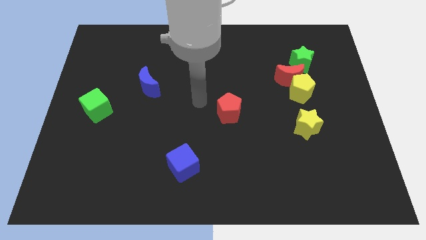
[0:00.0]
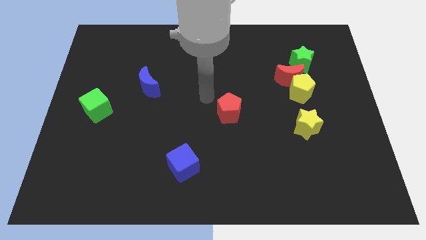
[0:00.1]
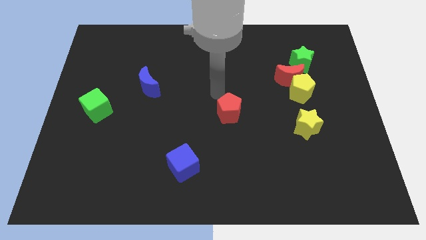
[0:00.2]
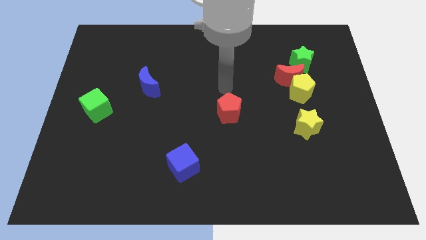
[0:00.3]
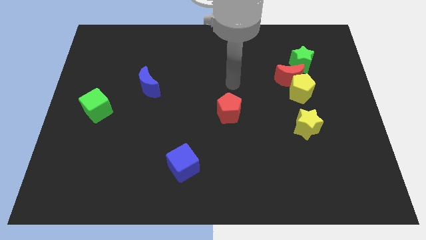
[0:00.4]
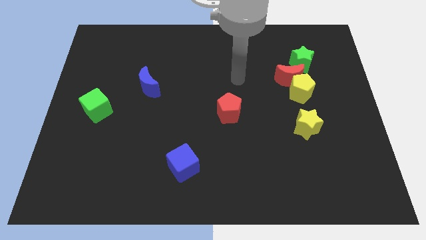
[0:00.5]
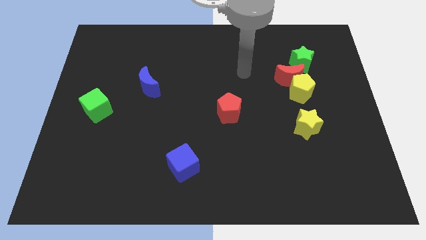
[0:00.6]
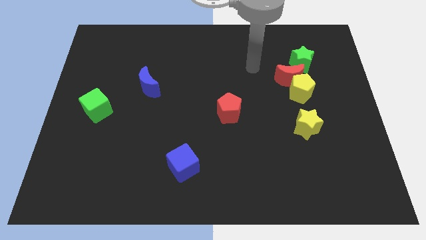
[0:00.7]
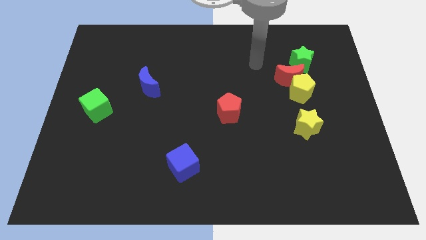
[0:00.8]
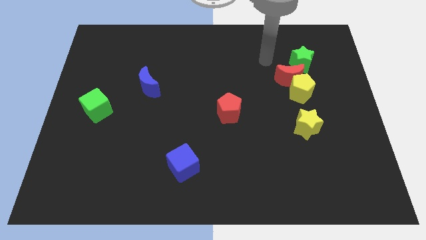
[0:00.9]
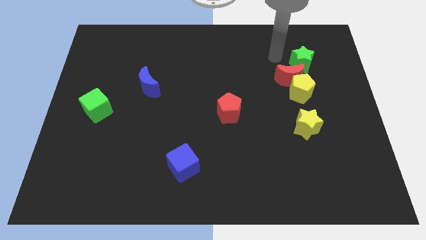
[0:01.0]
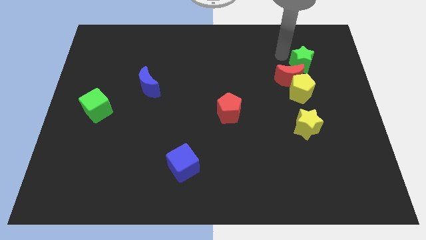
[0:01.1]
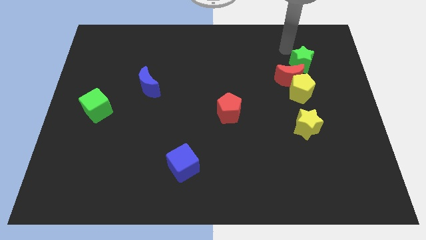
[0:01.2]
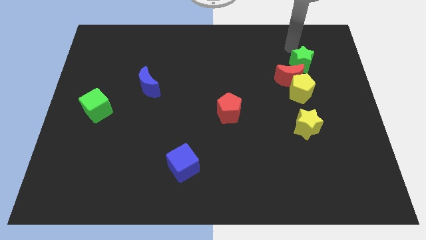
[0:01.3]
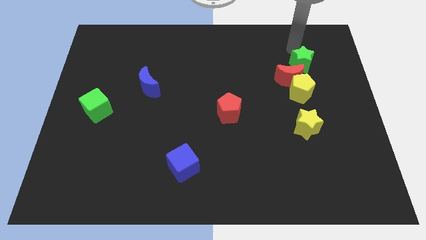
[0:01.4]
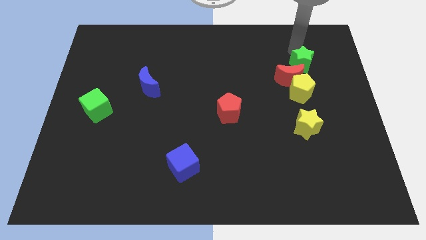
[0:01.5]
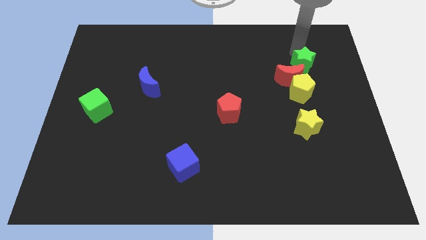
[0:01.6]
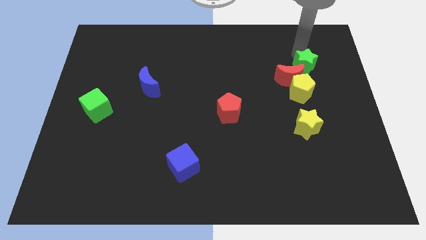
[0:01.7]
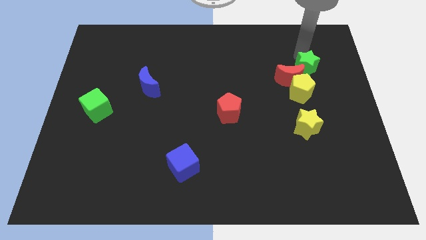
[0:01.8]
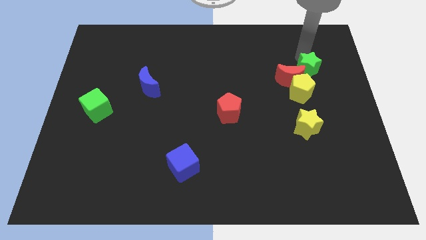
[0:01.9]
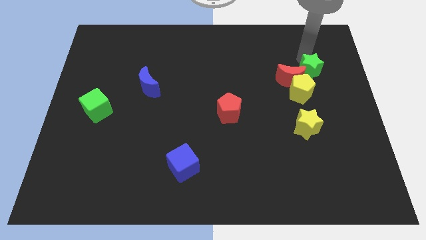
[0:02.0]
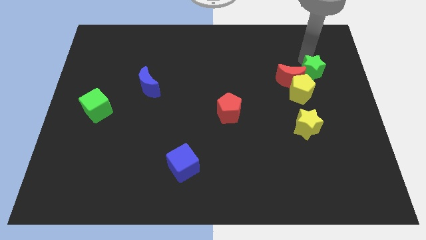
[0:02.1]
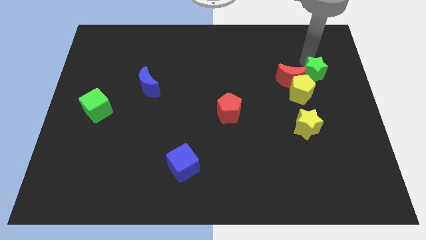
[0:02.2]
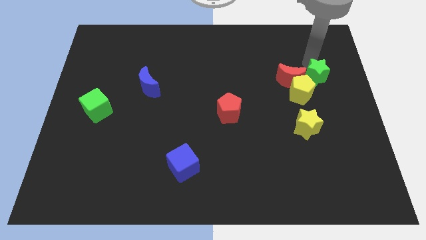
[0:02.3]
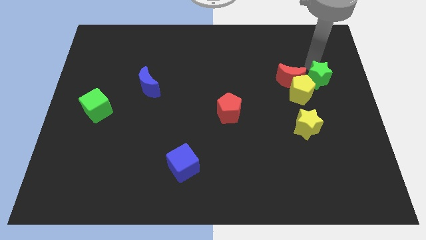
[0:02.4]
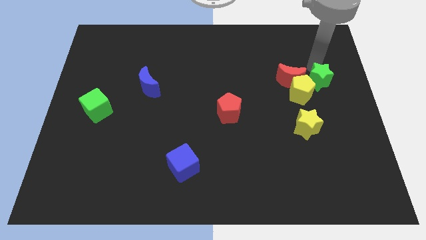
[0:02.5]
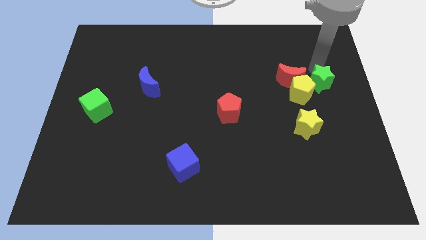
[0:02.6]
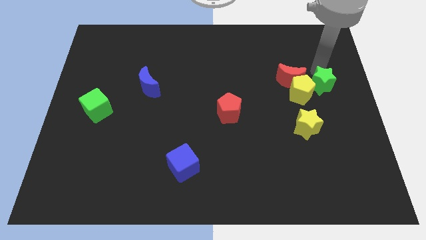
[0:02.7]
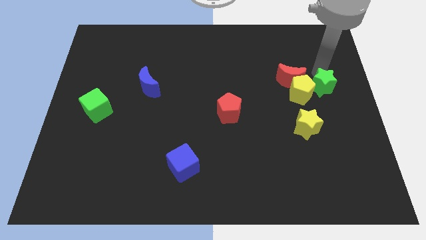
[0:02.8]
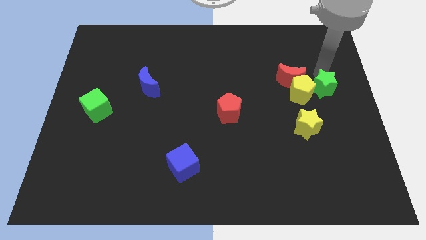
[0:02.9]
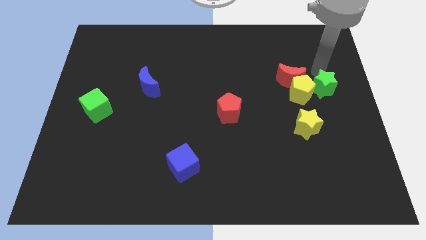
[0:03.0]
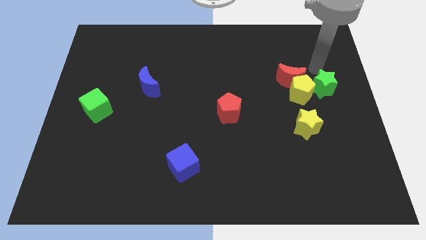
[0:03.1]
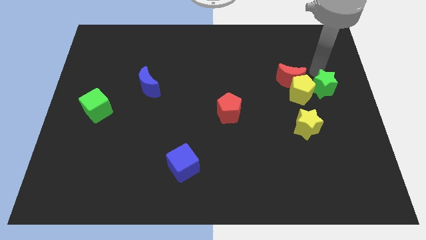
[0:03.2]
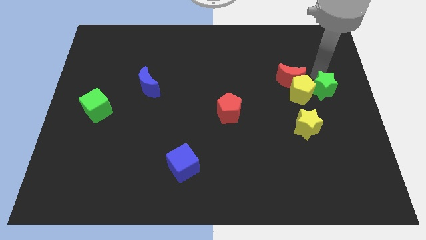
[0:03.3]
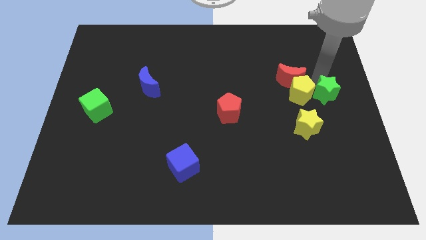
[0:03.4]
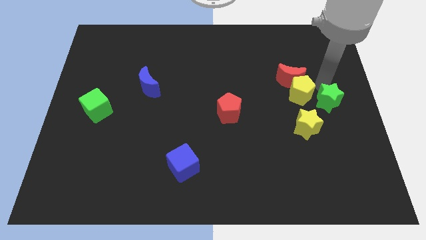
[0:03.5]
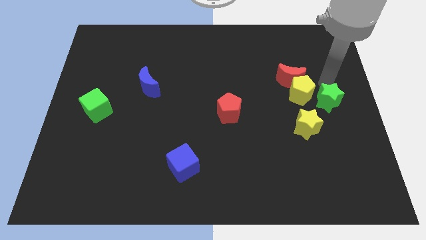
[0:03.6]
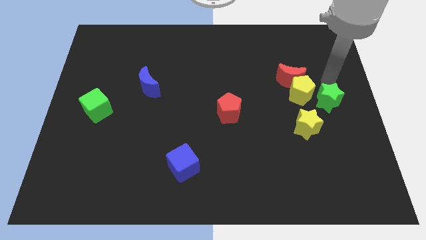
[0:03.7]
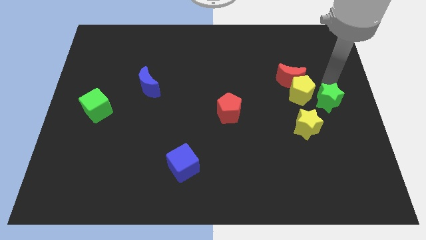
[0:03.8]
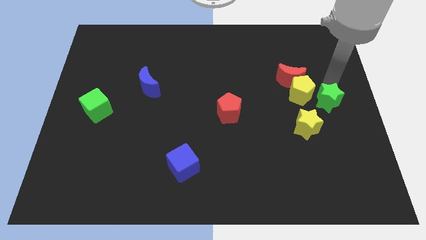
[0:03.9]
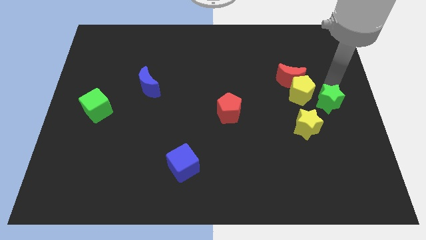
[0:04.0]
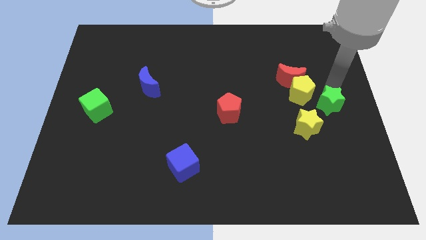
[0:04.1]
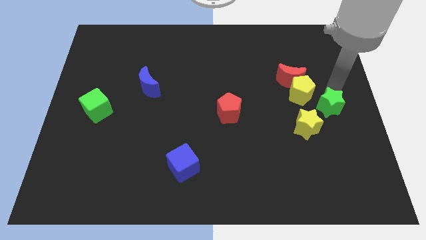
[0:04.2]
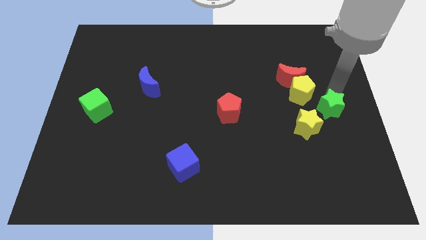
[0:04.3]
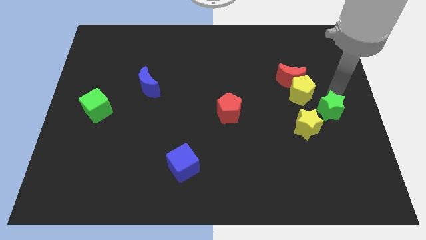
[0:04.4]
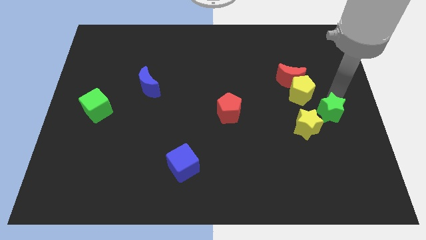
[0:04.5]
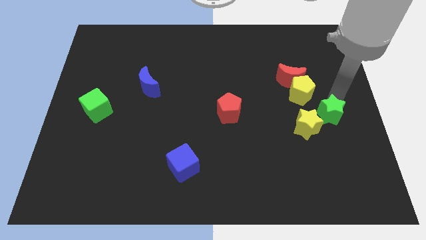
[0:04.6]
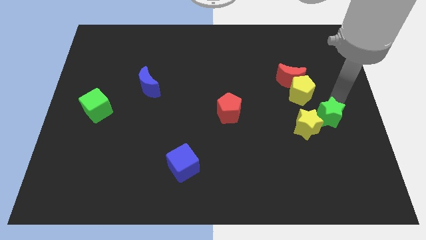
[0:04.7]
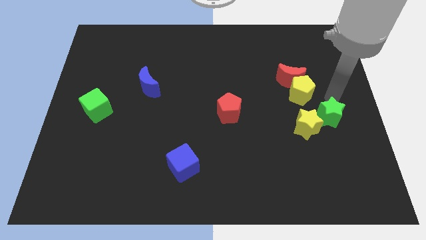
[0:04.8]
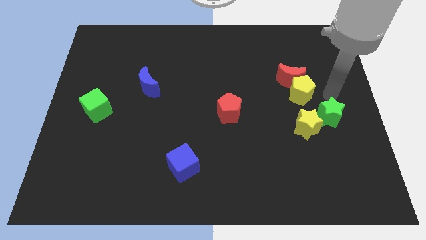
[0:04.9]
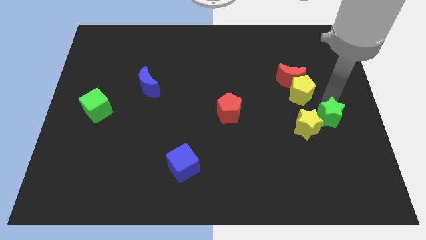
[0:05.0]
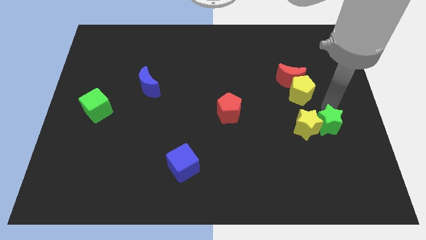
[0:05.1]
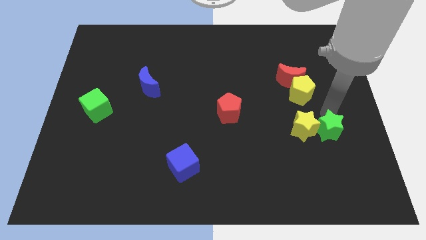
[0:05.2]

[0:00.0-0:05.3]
slide the green star downwards

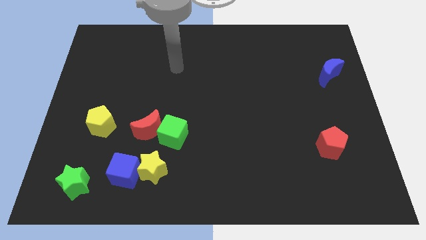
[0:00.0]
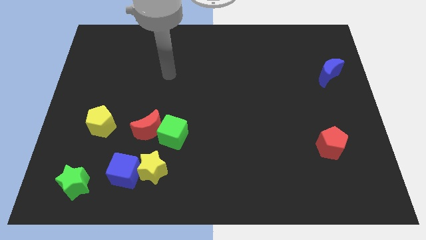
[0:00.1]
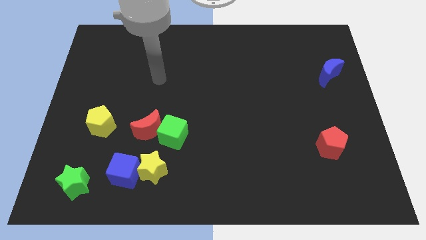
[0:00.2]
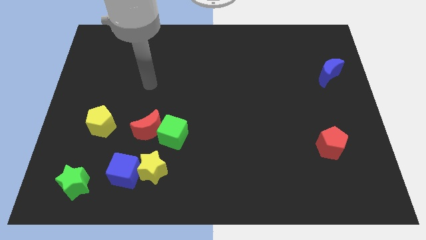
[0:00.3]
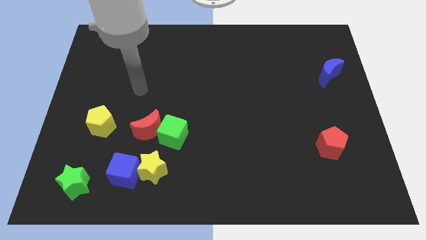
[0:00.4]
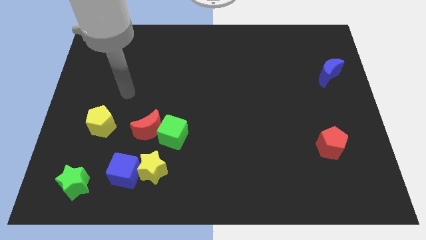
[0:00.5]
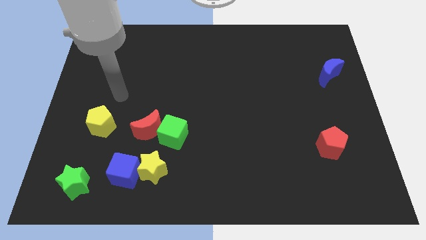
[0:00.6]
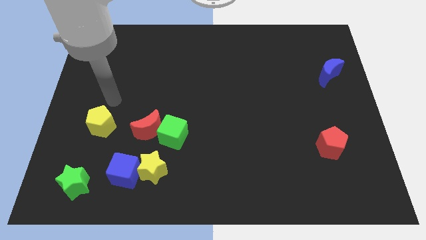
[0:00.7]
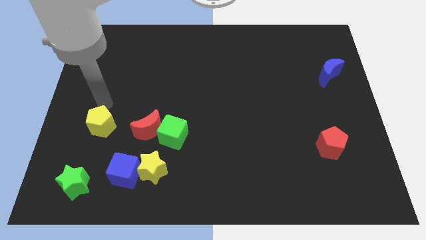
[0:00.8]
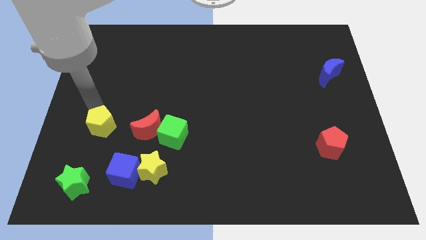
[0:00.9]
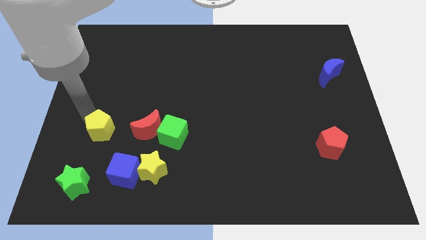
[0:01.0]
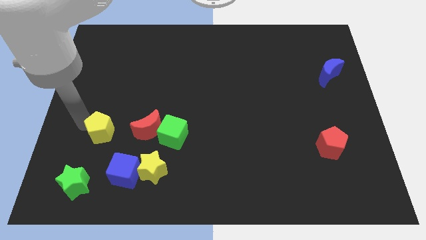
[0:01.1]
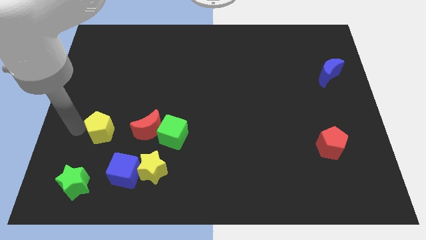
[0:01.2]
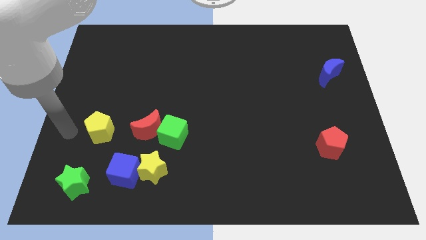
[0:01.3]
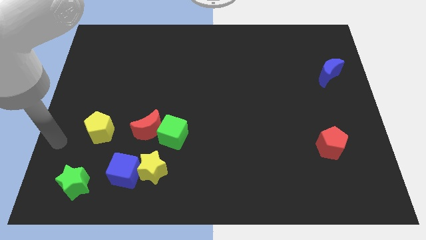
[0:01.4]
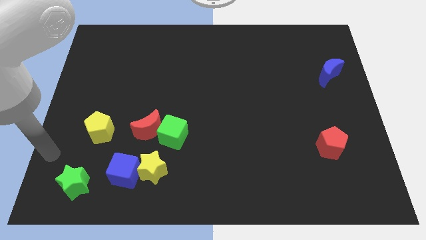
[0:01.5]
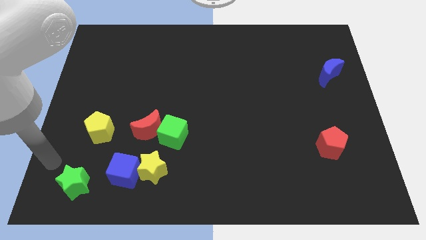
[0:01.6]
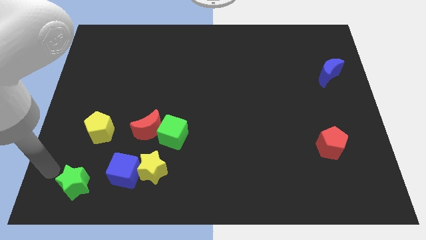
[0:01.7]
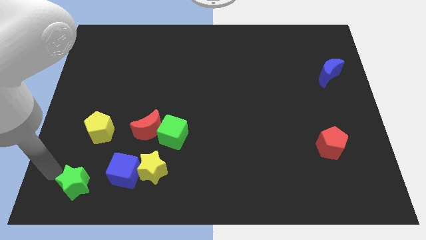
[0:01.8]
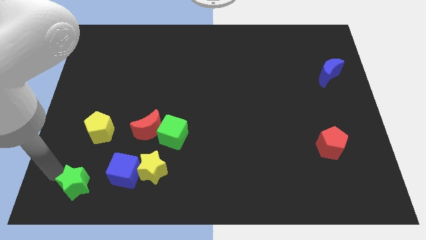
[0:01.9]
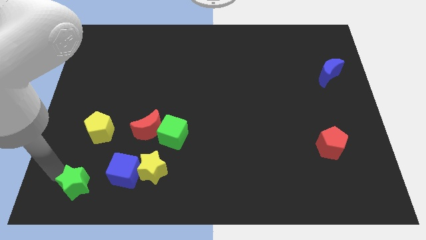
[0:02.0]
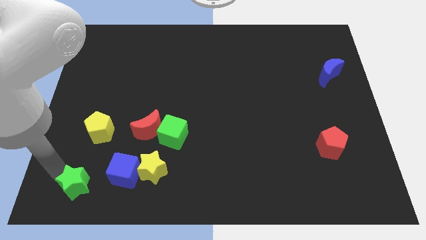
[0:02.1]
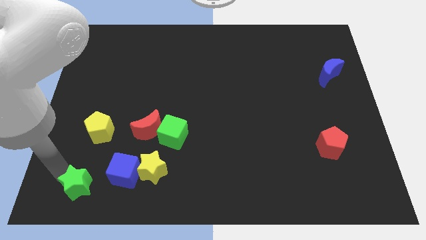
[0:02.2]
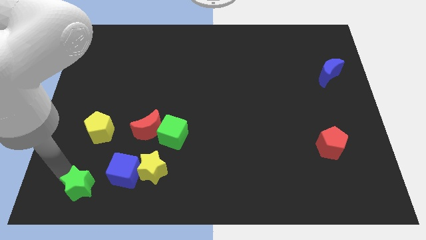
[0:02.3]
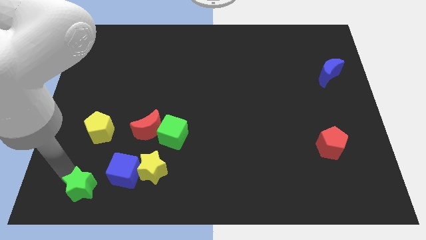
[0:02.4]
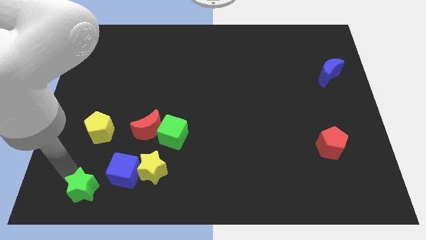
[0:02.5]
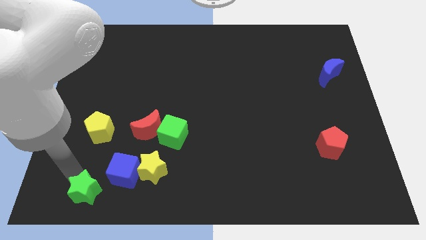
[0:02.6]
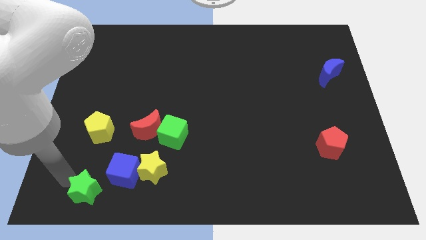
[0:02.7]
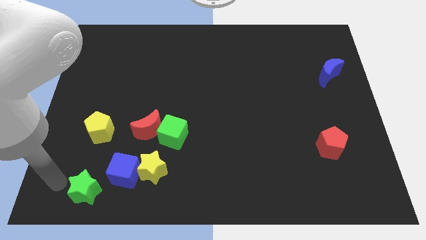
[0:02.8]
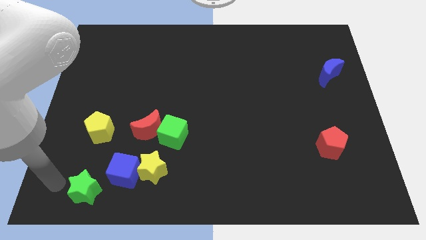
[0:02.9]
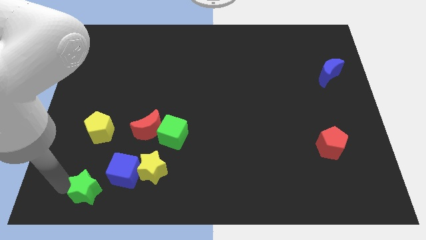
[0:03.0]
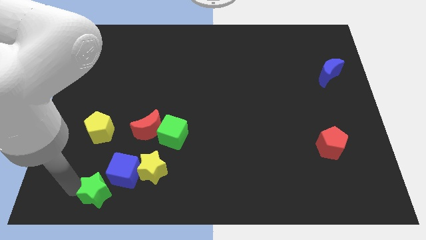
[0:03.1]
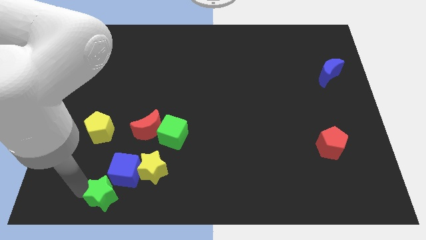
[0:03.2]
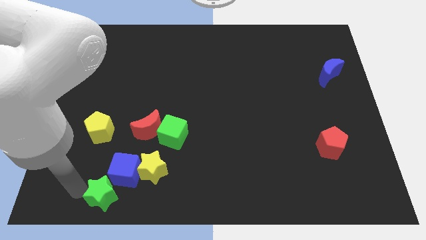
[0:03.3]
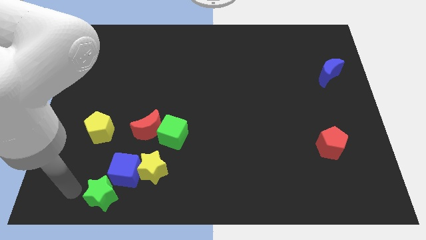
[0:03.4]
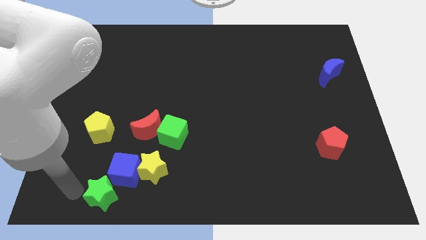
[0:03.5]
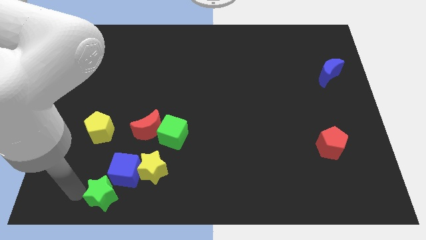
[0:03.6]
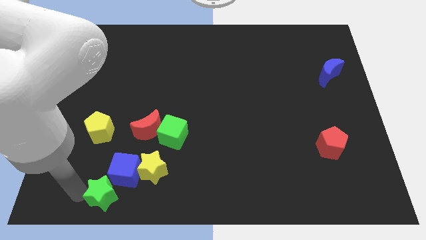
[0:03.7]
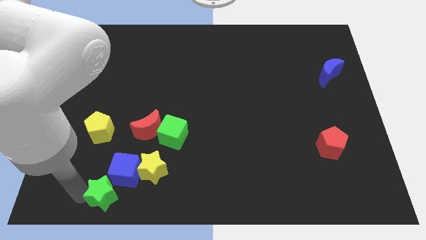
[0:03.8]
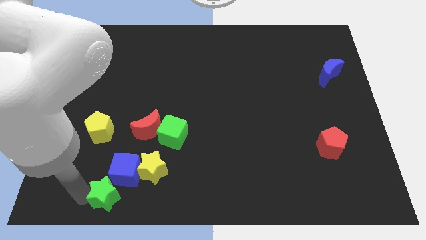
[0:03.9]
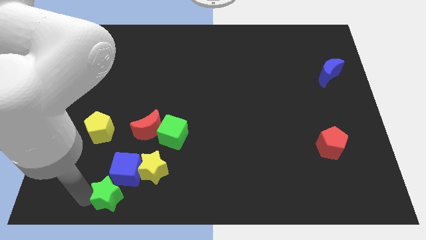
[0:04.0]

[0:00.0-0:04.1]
slide the green star a little to the right
